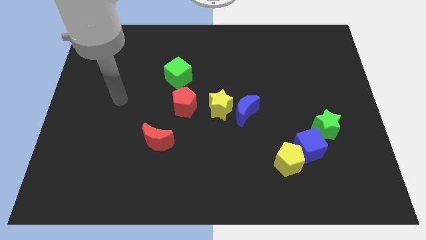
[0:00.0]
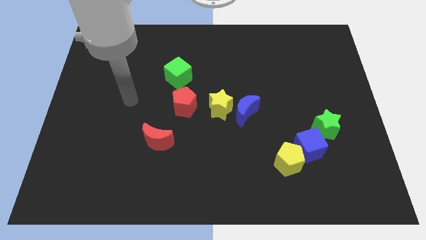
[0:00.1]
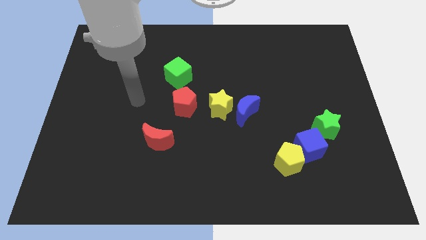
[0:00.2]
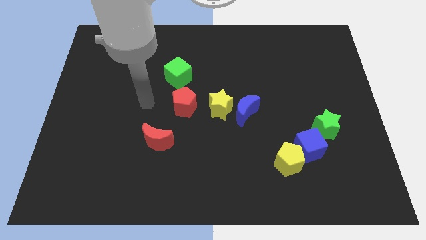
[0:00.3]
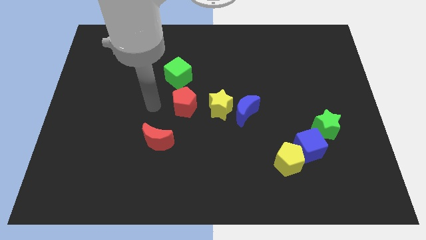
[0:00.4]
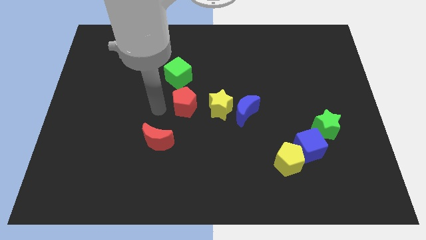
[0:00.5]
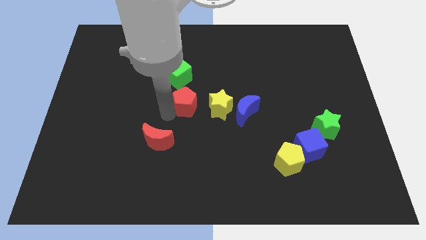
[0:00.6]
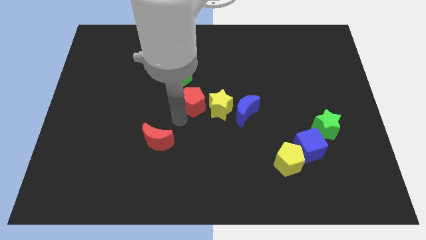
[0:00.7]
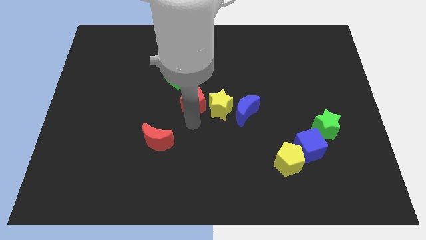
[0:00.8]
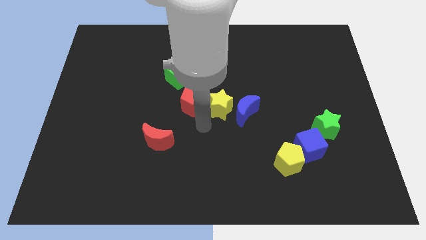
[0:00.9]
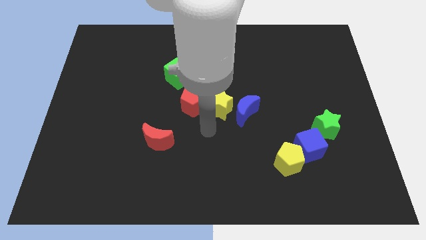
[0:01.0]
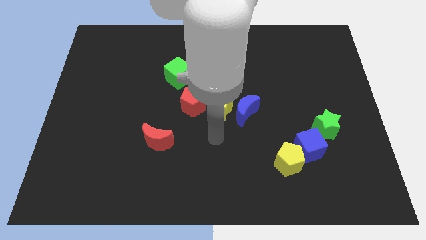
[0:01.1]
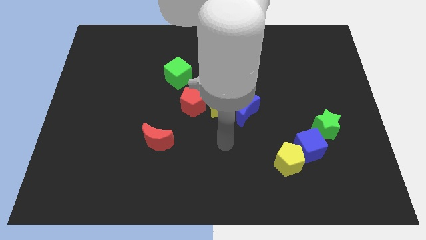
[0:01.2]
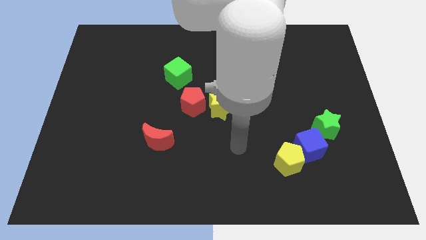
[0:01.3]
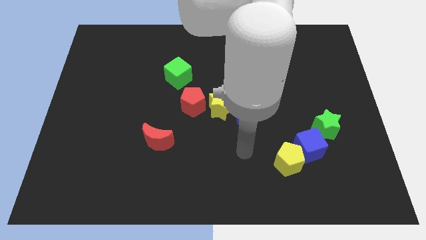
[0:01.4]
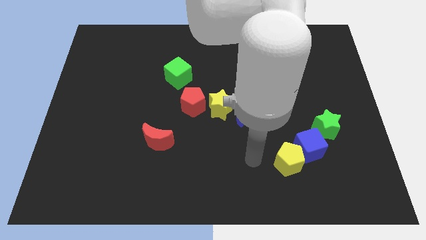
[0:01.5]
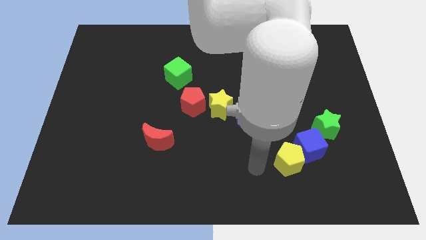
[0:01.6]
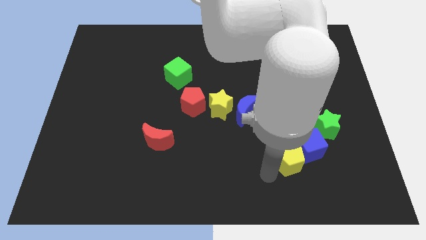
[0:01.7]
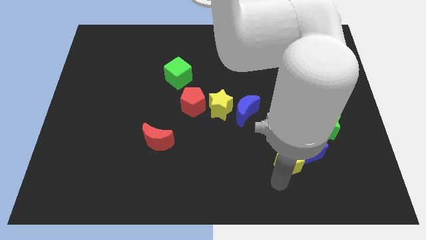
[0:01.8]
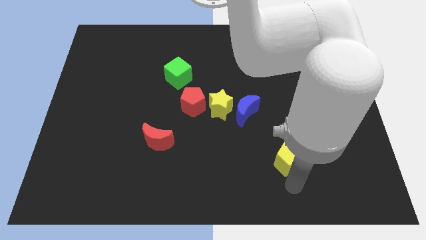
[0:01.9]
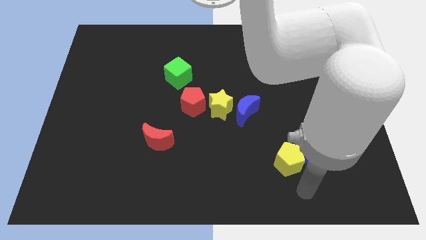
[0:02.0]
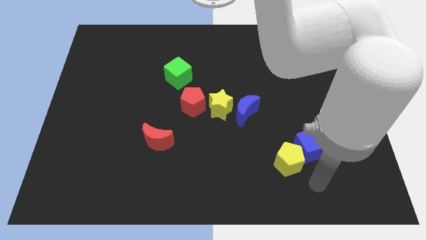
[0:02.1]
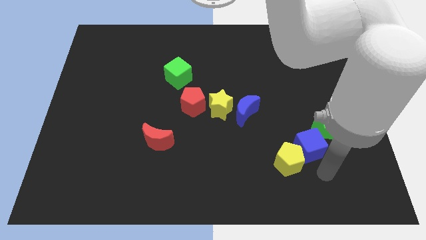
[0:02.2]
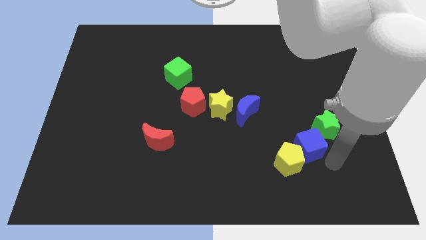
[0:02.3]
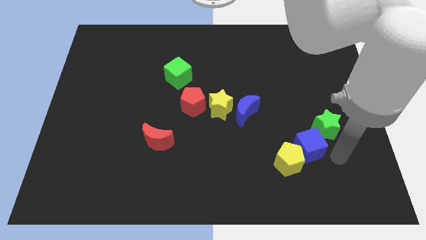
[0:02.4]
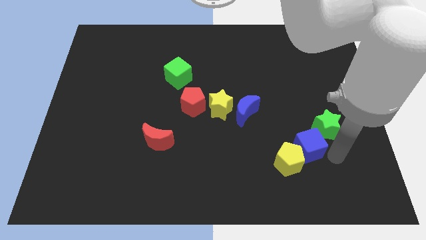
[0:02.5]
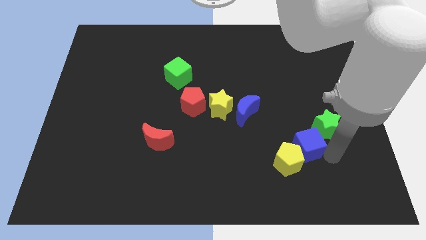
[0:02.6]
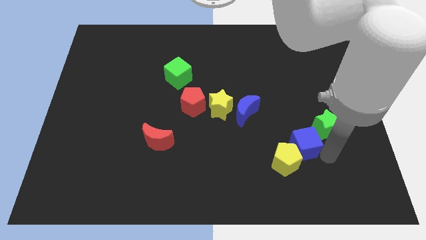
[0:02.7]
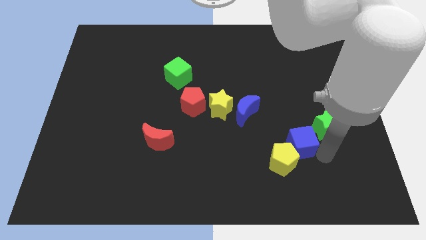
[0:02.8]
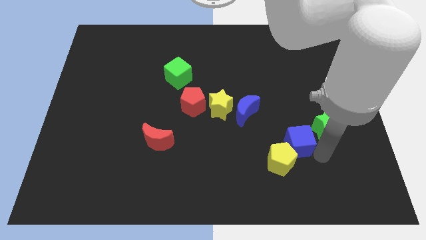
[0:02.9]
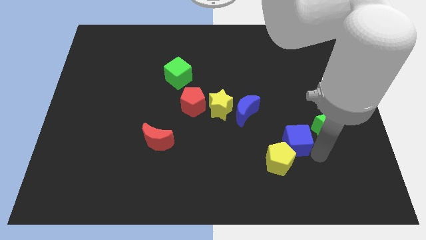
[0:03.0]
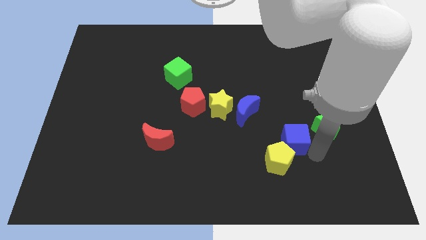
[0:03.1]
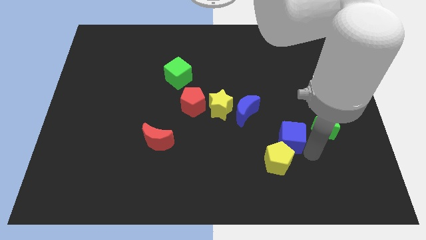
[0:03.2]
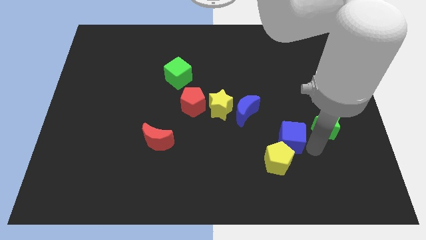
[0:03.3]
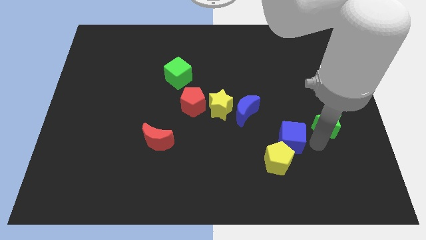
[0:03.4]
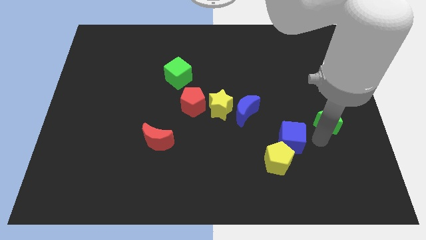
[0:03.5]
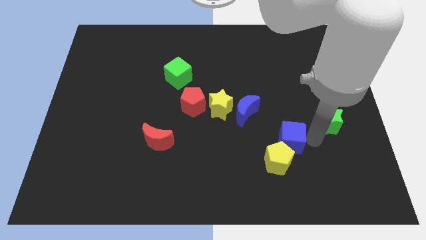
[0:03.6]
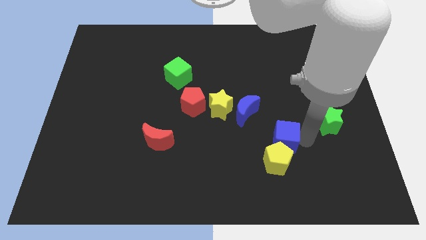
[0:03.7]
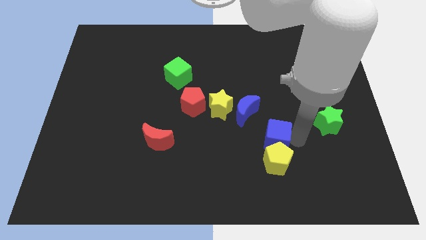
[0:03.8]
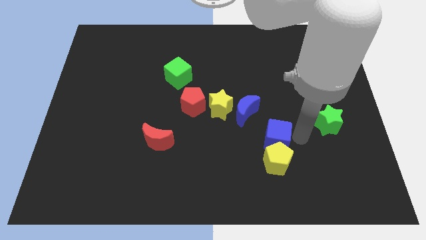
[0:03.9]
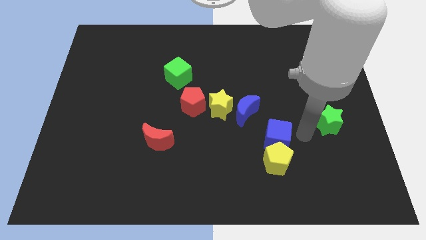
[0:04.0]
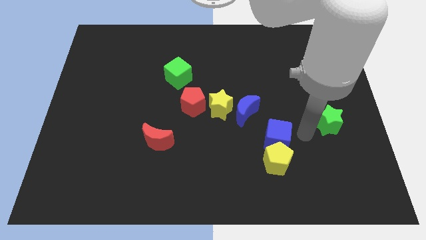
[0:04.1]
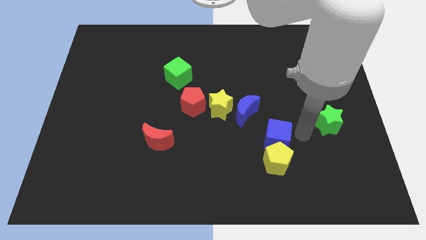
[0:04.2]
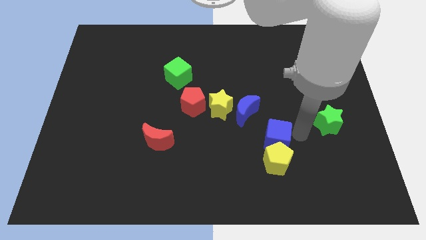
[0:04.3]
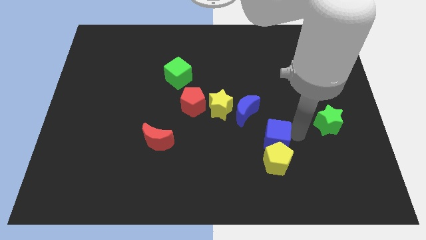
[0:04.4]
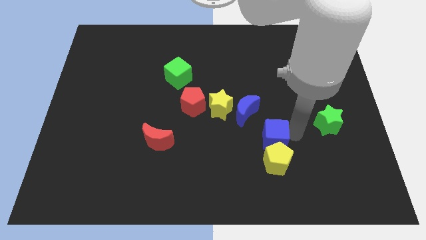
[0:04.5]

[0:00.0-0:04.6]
push the blue cube somewhat to the left

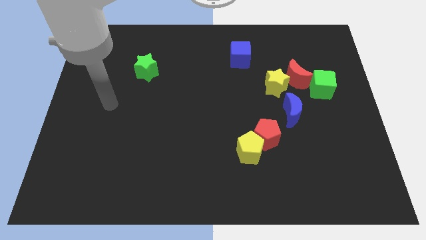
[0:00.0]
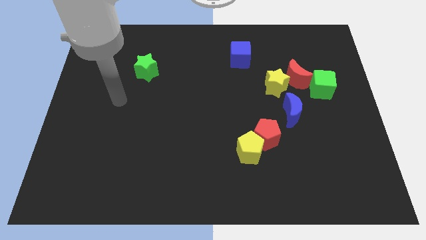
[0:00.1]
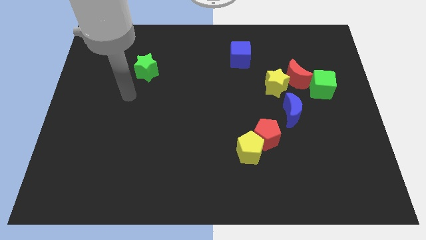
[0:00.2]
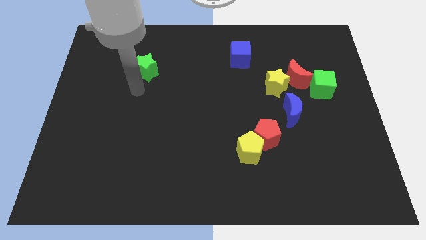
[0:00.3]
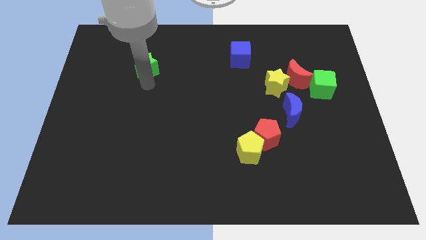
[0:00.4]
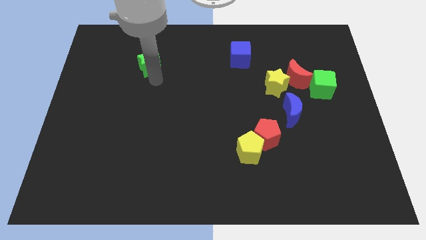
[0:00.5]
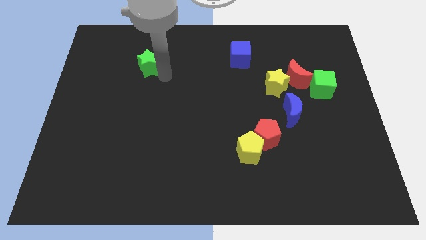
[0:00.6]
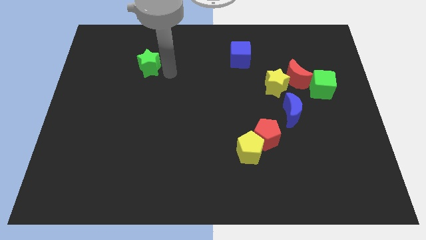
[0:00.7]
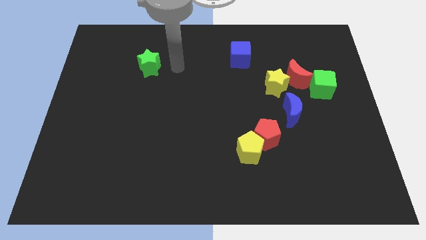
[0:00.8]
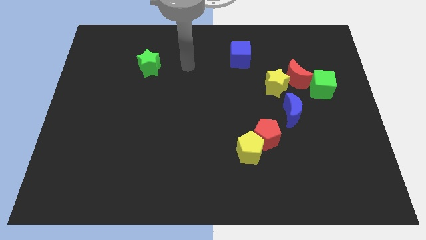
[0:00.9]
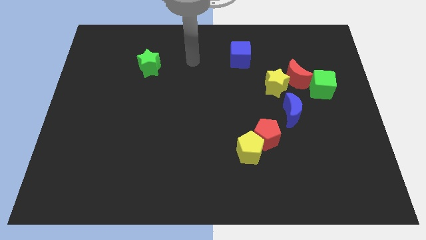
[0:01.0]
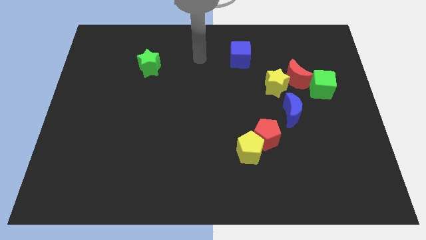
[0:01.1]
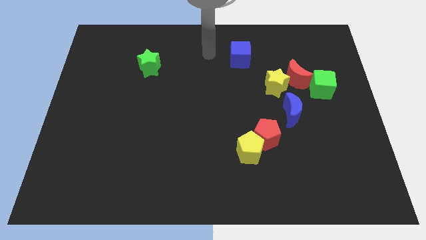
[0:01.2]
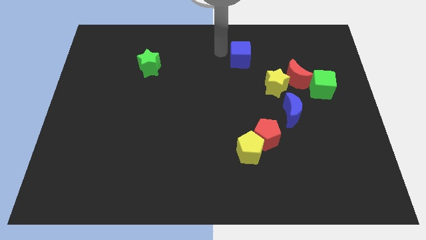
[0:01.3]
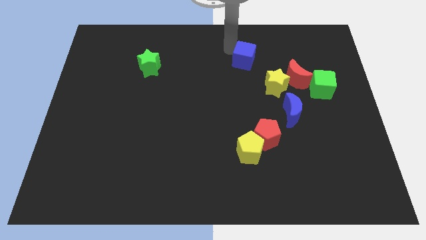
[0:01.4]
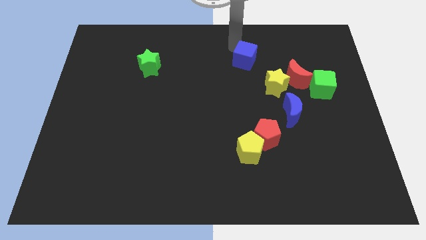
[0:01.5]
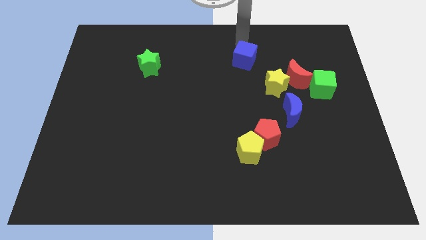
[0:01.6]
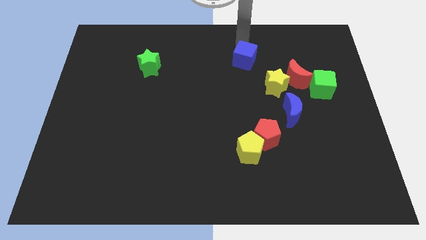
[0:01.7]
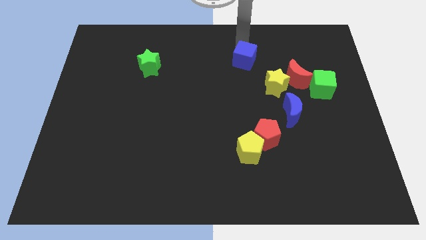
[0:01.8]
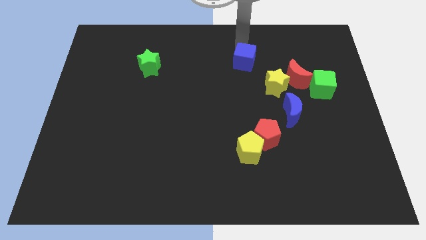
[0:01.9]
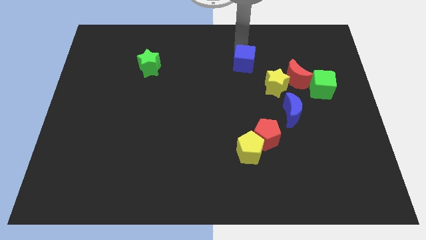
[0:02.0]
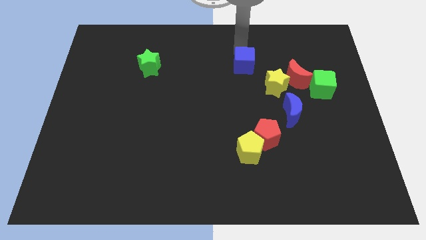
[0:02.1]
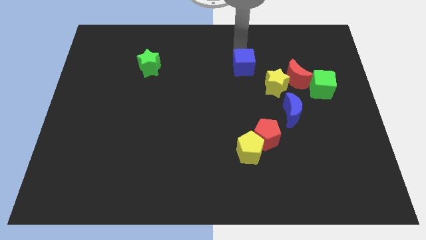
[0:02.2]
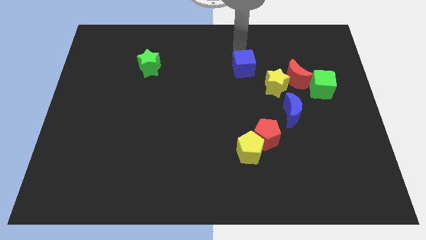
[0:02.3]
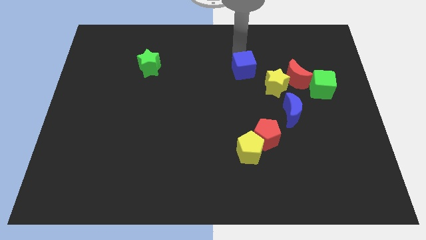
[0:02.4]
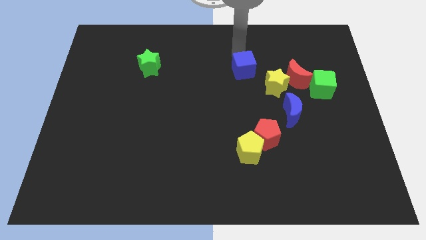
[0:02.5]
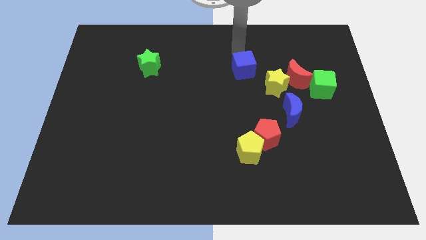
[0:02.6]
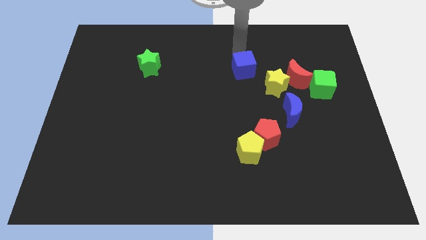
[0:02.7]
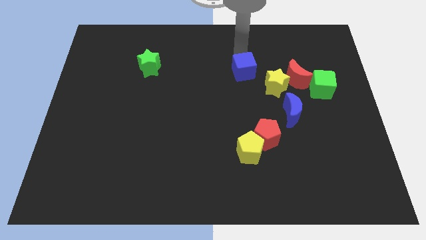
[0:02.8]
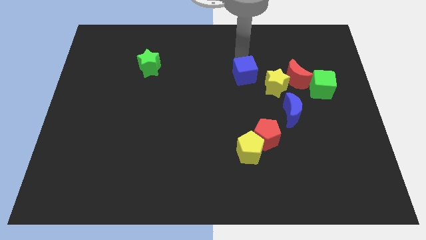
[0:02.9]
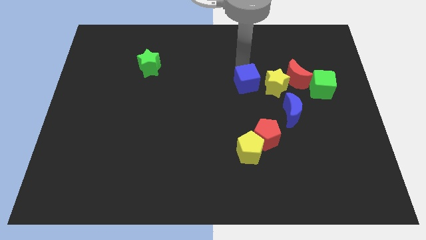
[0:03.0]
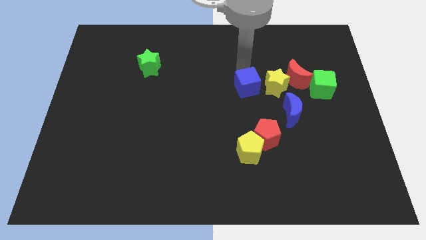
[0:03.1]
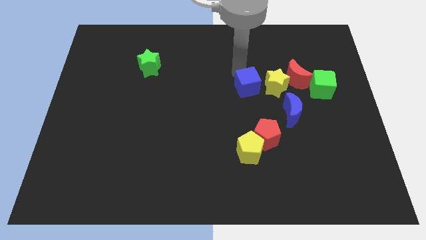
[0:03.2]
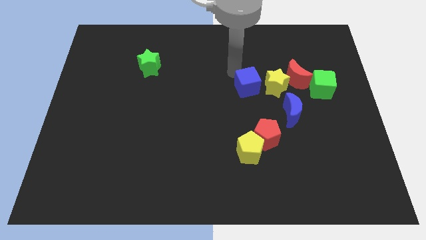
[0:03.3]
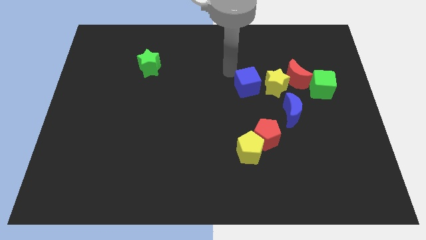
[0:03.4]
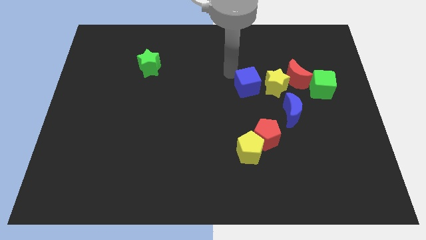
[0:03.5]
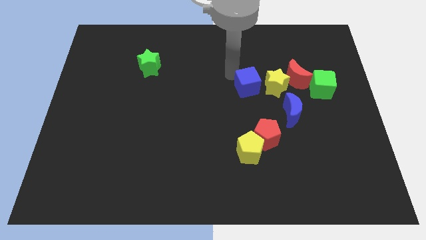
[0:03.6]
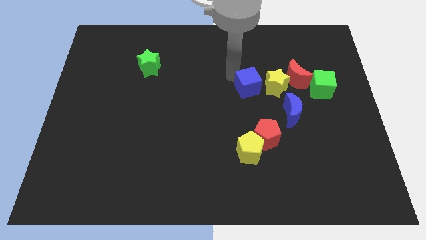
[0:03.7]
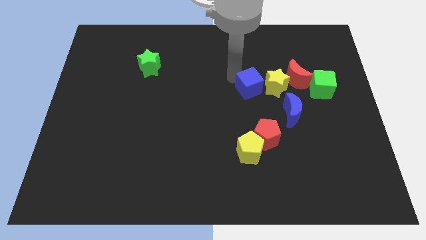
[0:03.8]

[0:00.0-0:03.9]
slightly push the blue cube diagonally downwards and right
